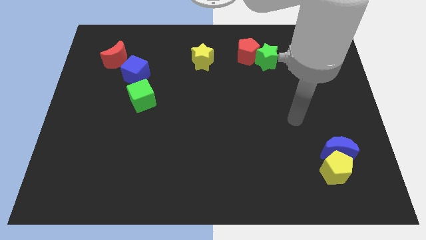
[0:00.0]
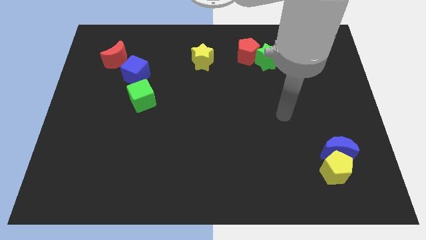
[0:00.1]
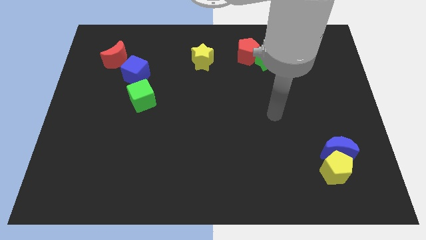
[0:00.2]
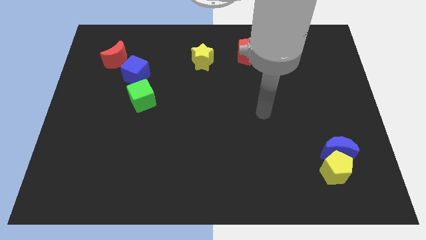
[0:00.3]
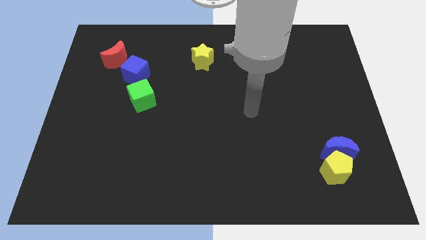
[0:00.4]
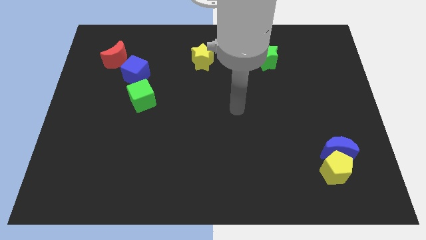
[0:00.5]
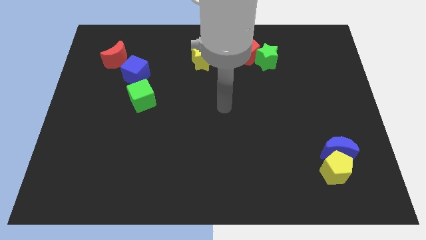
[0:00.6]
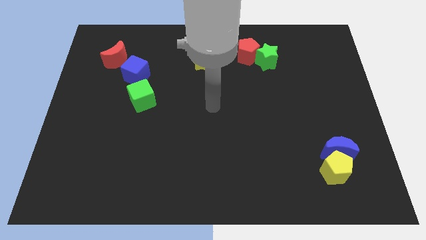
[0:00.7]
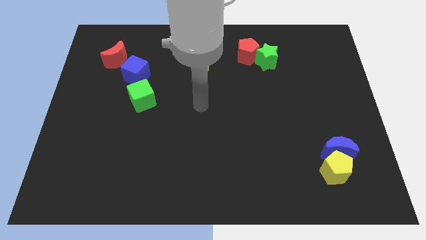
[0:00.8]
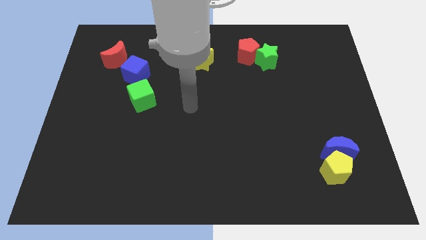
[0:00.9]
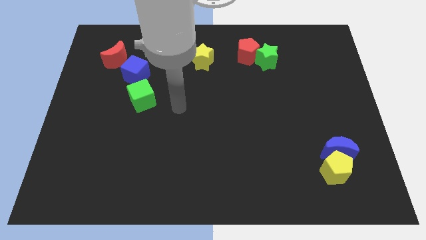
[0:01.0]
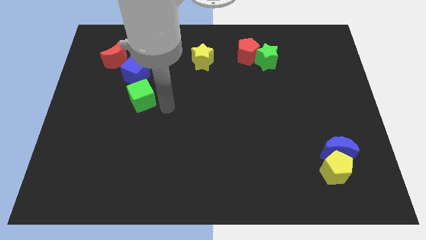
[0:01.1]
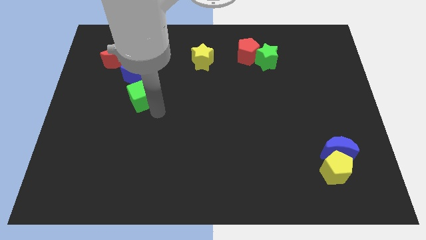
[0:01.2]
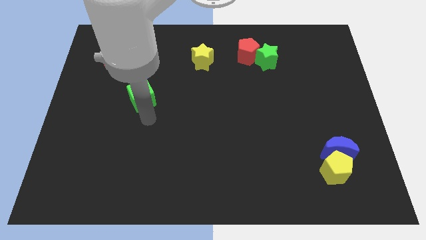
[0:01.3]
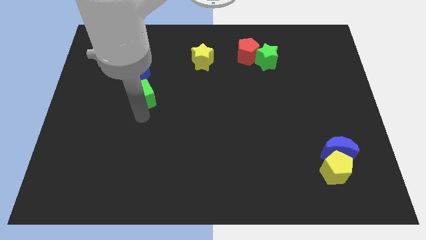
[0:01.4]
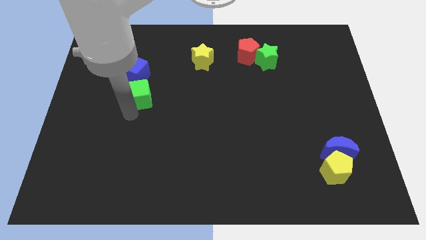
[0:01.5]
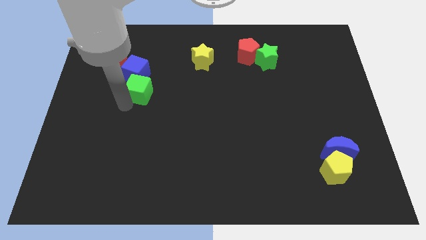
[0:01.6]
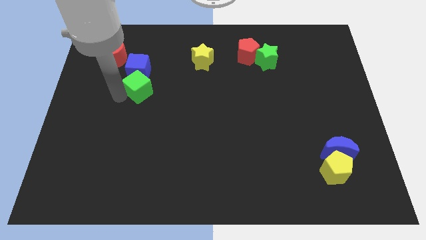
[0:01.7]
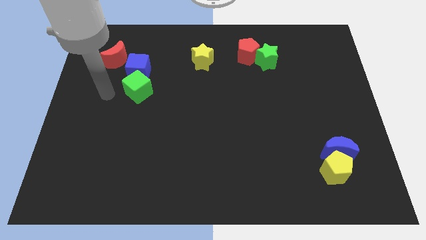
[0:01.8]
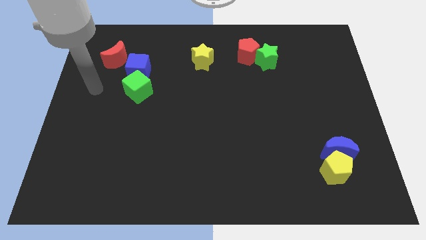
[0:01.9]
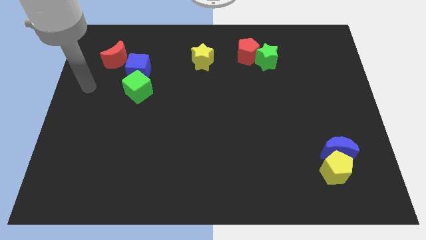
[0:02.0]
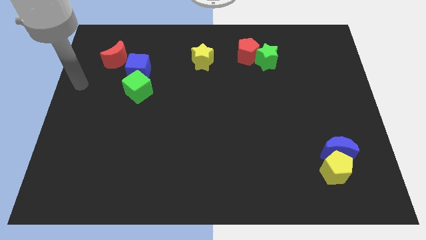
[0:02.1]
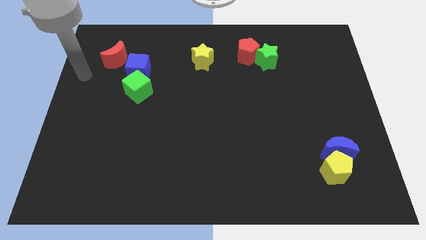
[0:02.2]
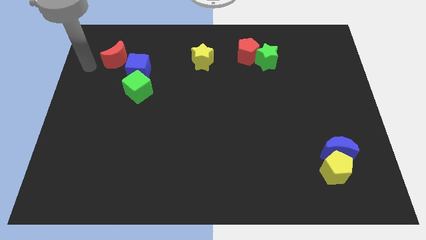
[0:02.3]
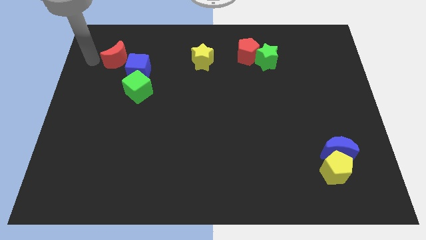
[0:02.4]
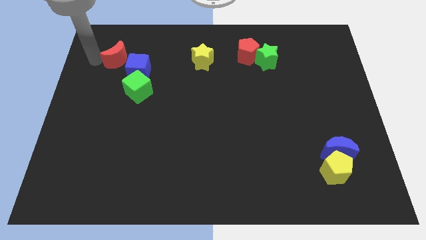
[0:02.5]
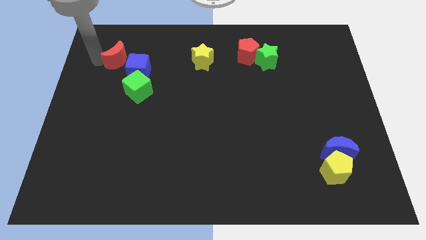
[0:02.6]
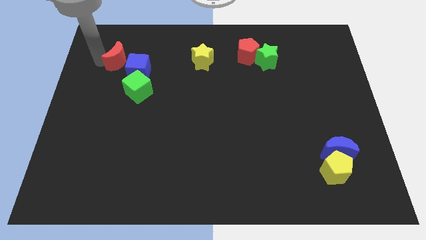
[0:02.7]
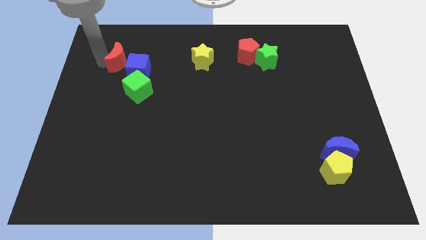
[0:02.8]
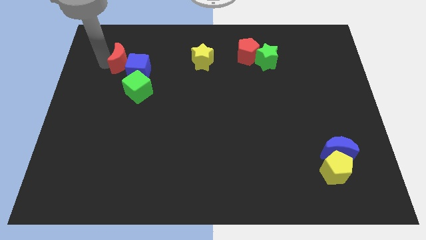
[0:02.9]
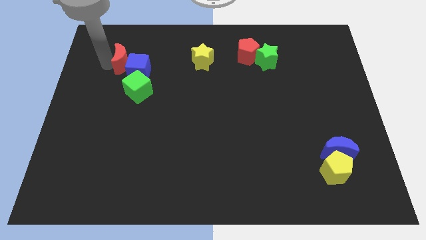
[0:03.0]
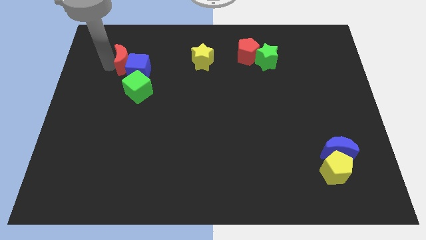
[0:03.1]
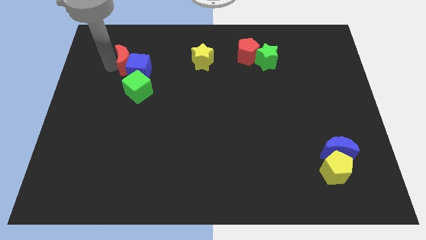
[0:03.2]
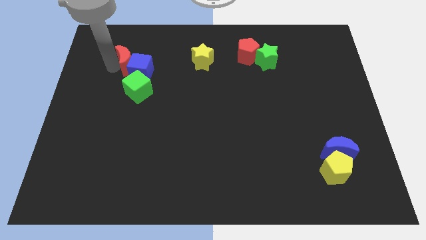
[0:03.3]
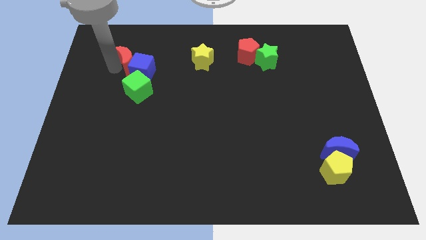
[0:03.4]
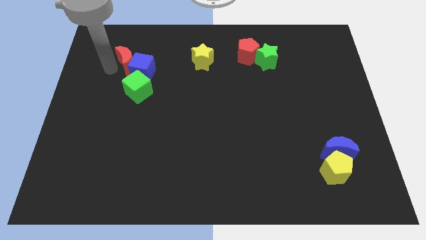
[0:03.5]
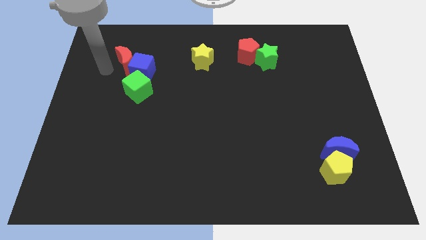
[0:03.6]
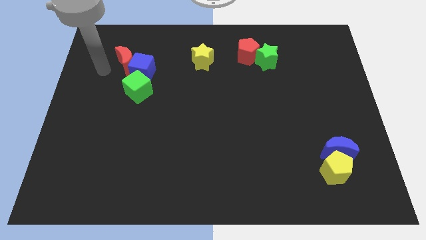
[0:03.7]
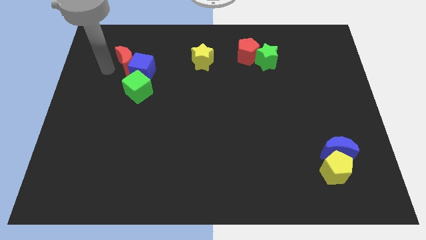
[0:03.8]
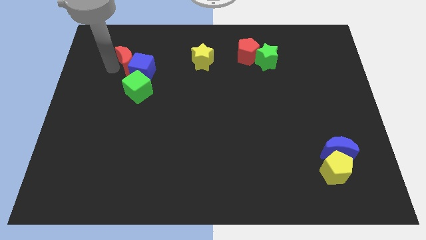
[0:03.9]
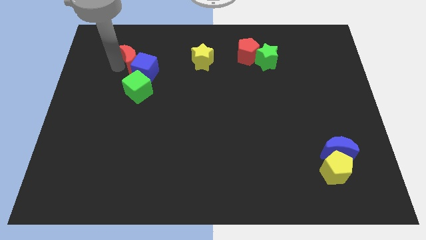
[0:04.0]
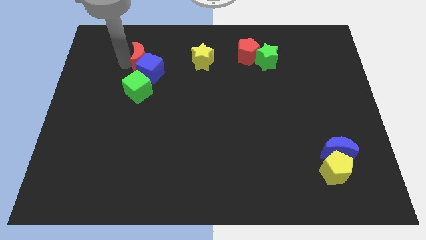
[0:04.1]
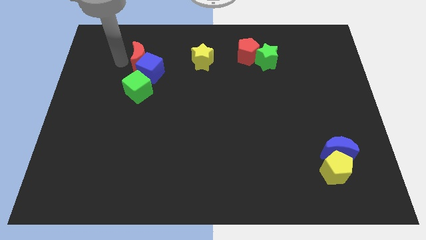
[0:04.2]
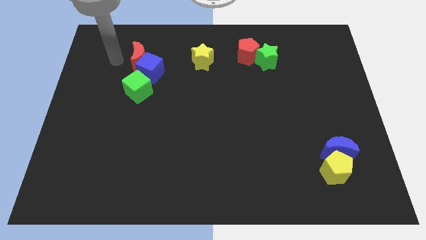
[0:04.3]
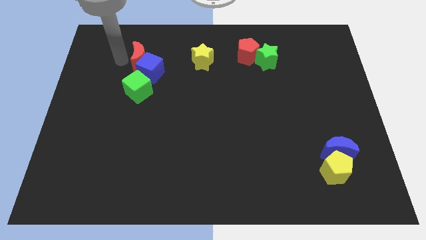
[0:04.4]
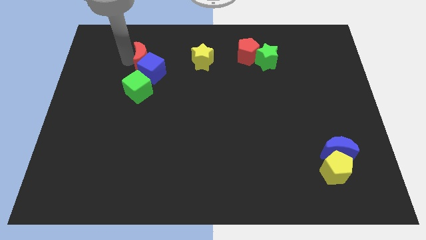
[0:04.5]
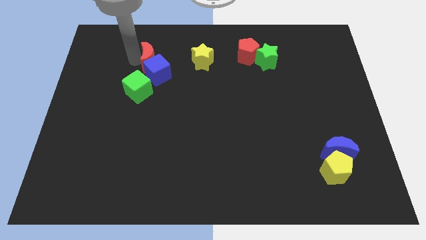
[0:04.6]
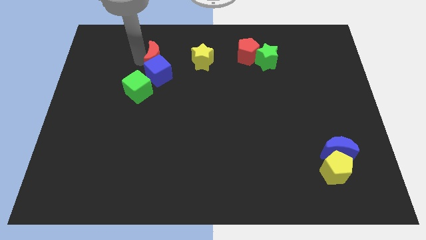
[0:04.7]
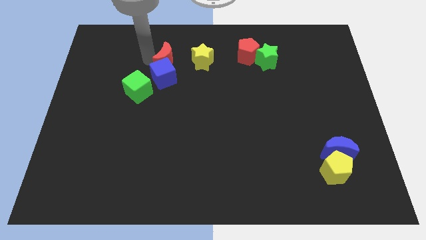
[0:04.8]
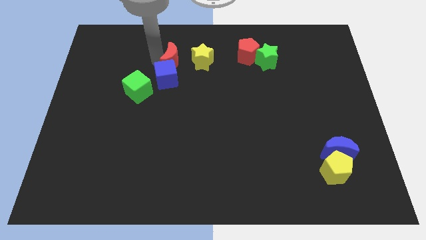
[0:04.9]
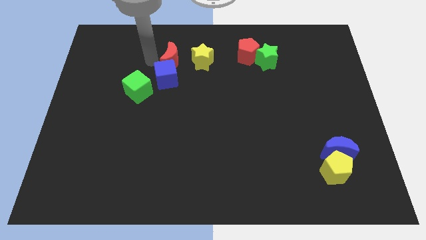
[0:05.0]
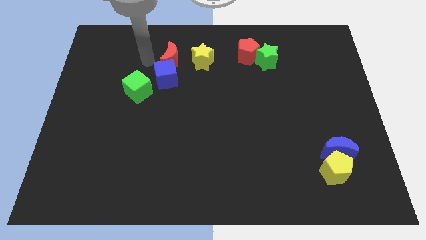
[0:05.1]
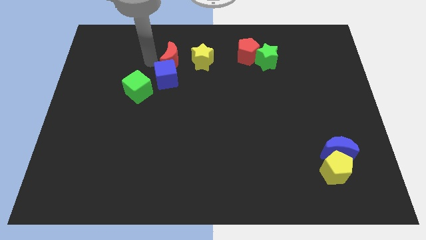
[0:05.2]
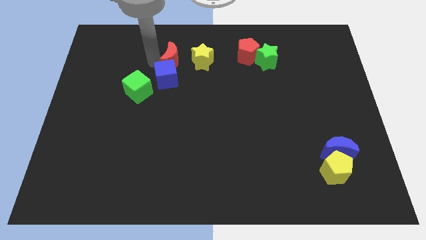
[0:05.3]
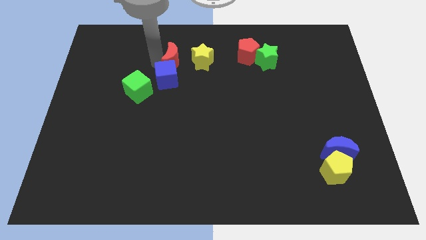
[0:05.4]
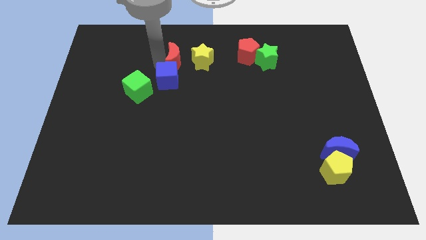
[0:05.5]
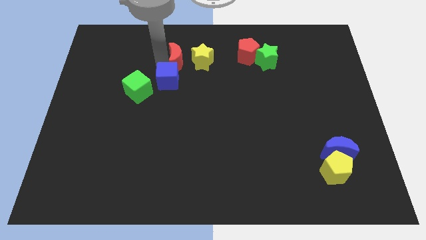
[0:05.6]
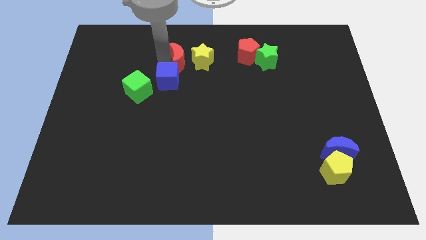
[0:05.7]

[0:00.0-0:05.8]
put the red moon next to the yellow star
